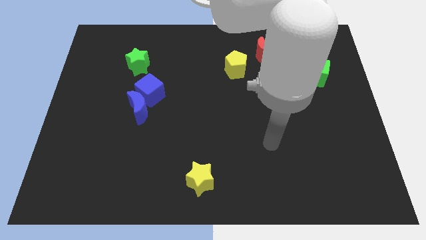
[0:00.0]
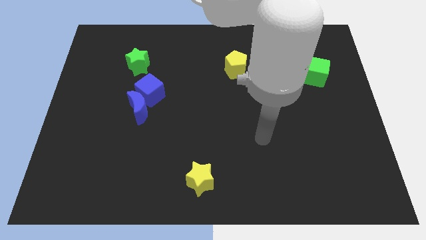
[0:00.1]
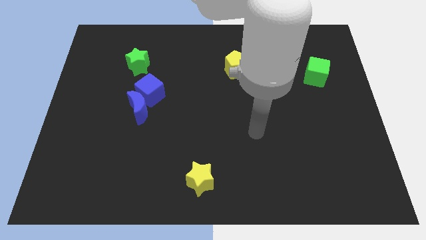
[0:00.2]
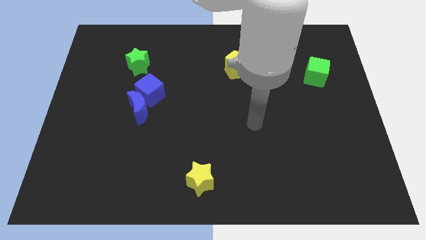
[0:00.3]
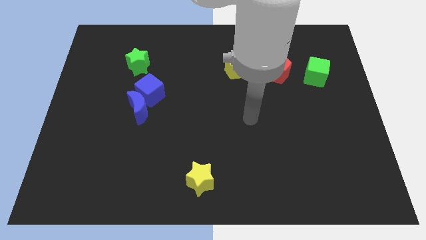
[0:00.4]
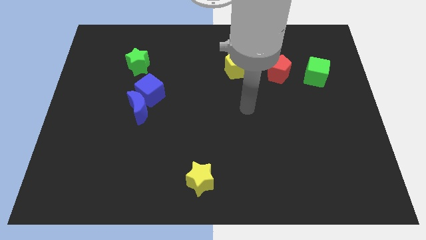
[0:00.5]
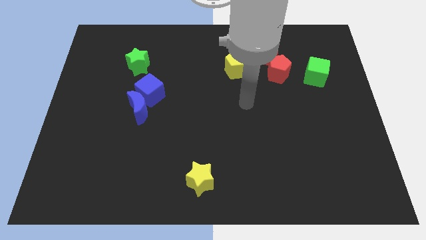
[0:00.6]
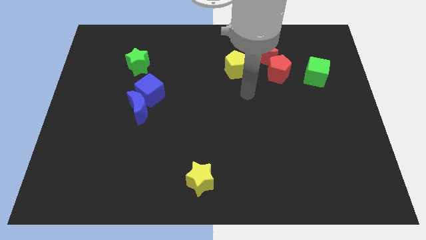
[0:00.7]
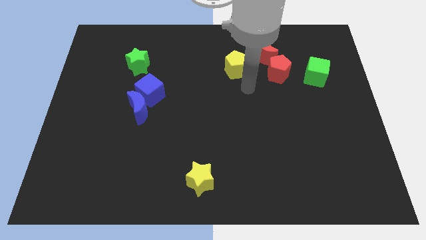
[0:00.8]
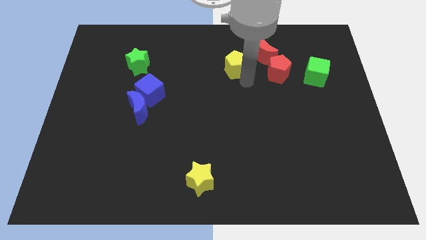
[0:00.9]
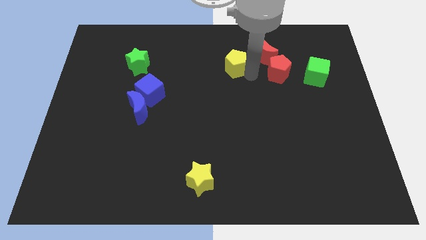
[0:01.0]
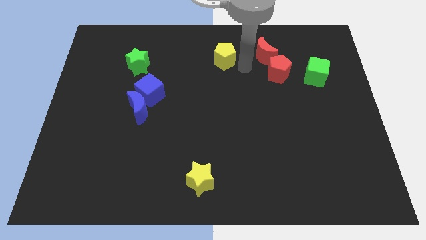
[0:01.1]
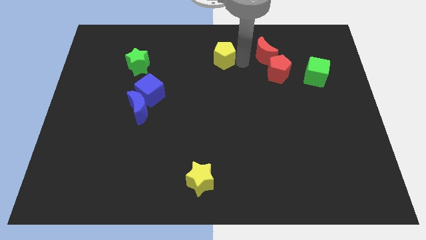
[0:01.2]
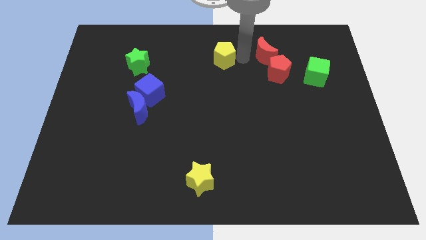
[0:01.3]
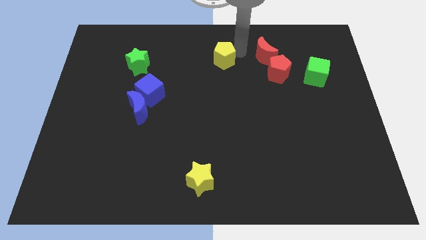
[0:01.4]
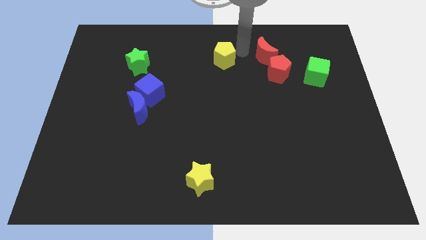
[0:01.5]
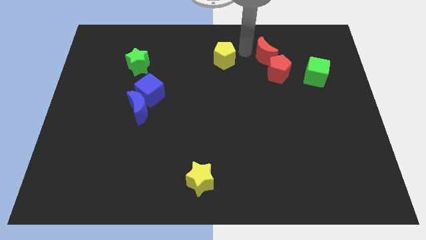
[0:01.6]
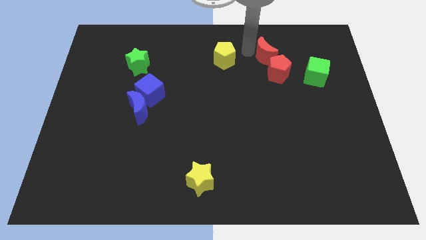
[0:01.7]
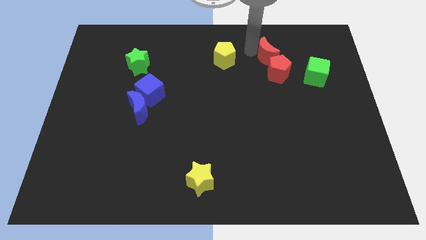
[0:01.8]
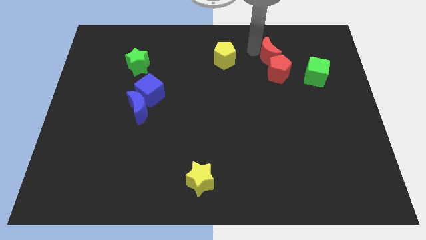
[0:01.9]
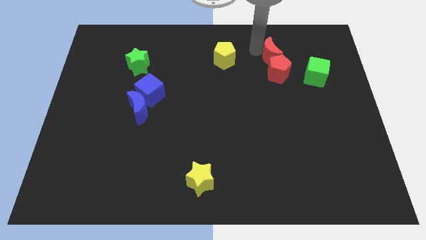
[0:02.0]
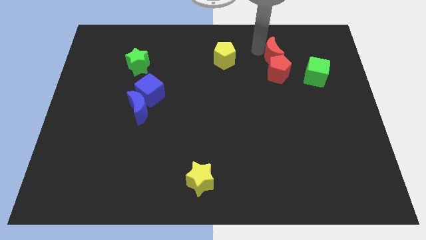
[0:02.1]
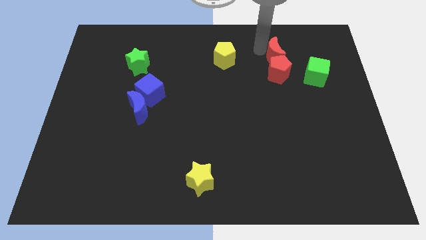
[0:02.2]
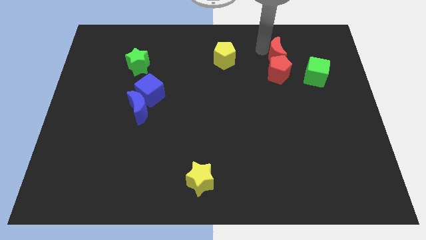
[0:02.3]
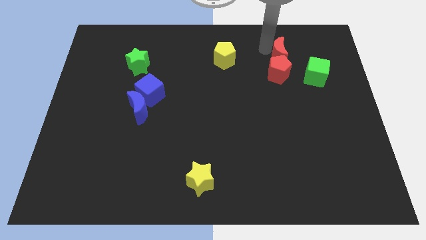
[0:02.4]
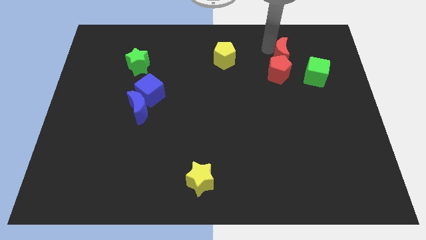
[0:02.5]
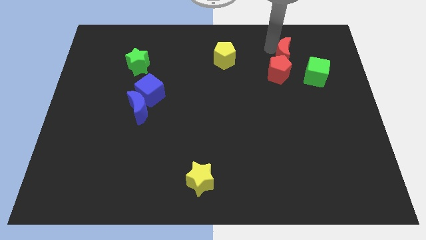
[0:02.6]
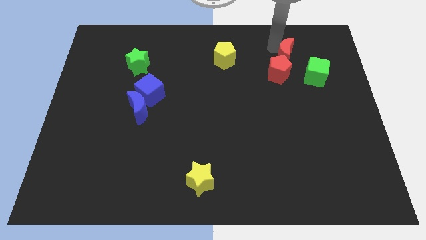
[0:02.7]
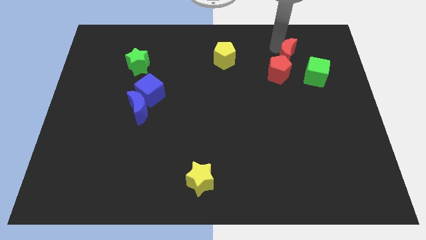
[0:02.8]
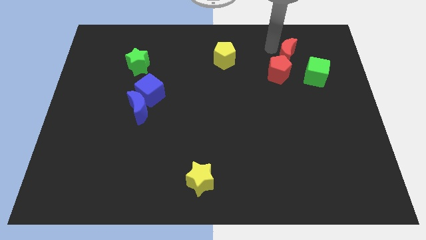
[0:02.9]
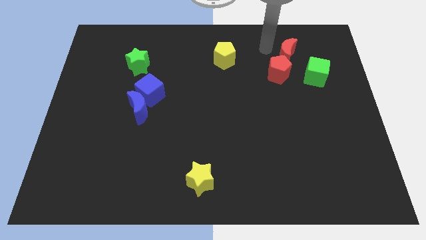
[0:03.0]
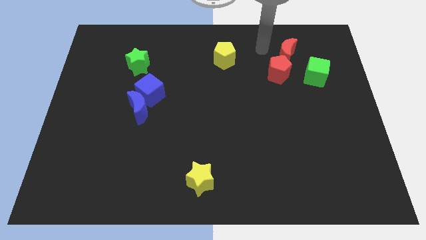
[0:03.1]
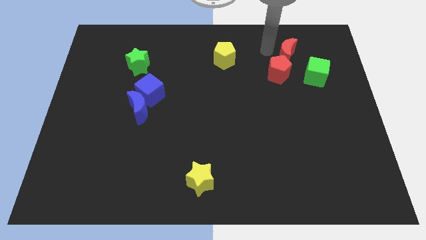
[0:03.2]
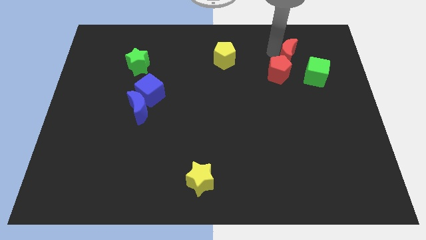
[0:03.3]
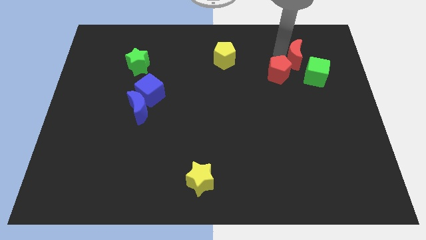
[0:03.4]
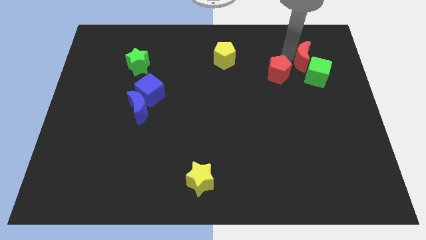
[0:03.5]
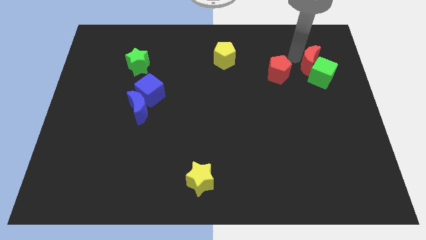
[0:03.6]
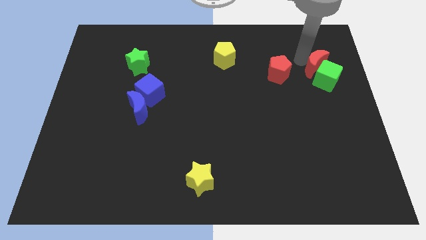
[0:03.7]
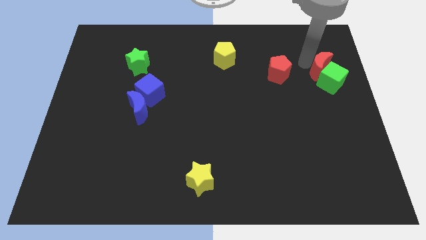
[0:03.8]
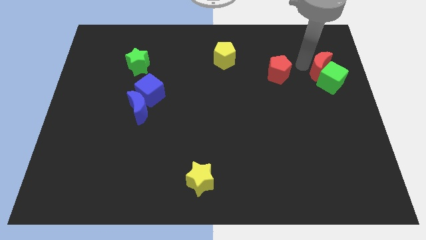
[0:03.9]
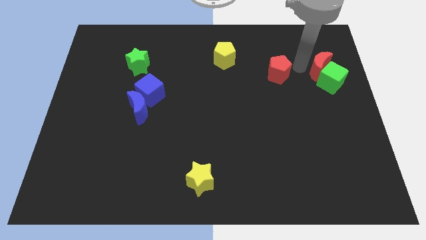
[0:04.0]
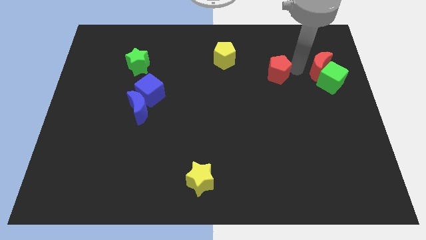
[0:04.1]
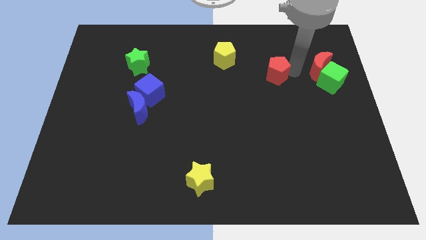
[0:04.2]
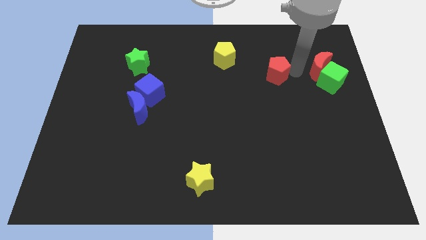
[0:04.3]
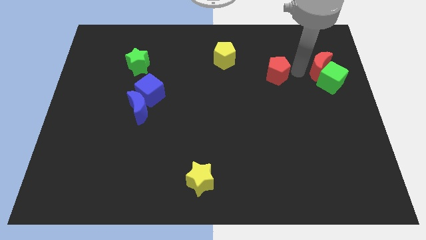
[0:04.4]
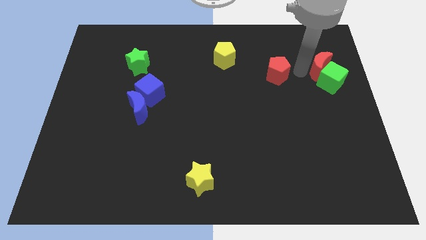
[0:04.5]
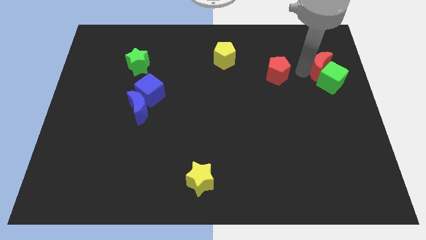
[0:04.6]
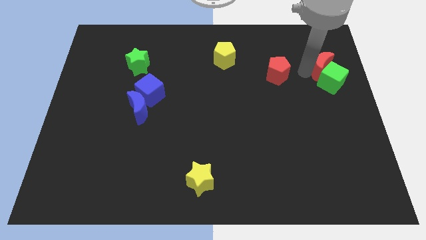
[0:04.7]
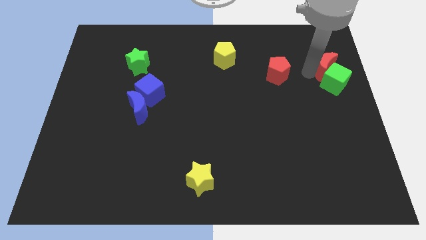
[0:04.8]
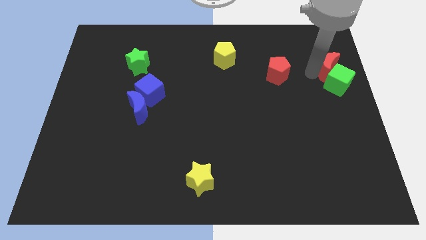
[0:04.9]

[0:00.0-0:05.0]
slide the red moon to the right side of the board

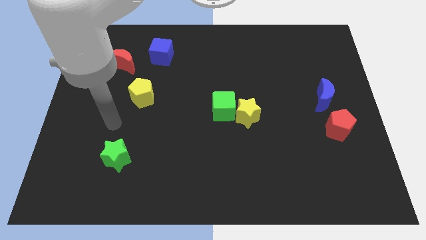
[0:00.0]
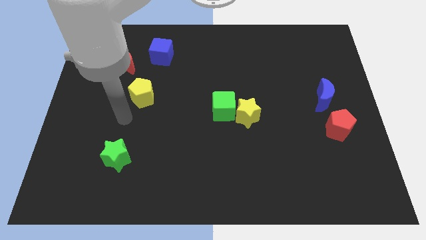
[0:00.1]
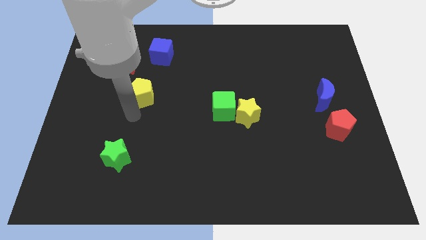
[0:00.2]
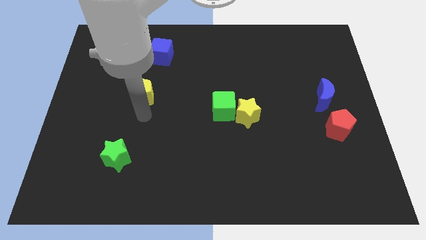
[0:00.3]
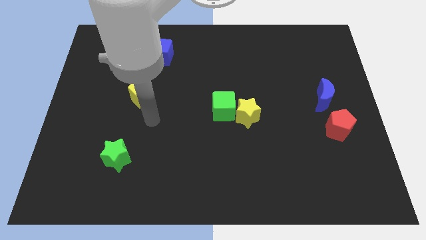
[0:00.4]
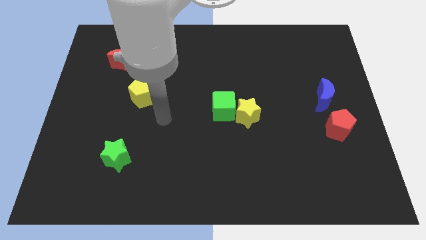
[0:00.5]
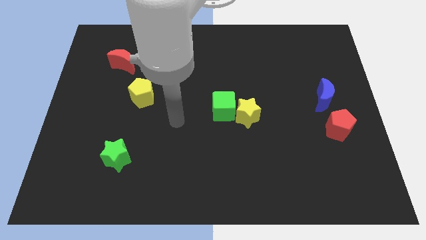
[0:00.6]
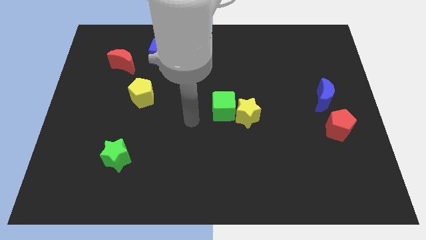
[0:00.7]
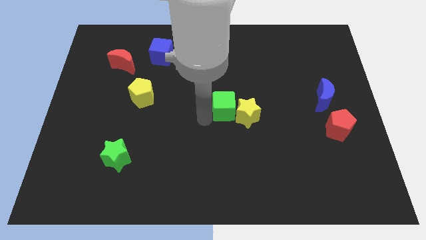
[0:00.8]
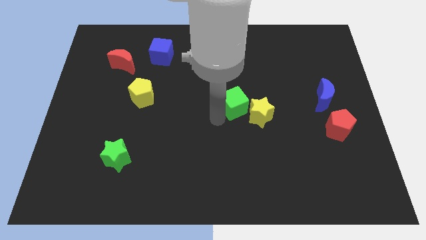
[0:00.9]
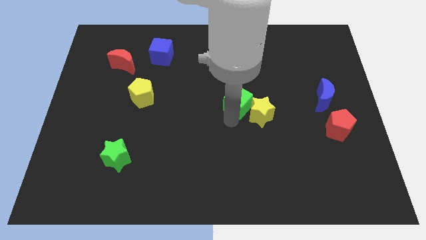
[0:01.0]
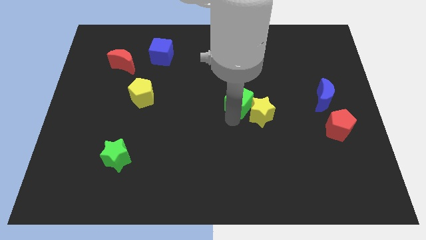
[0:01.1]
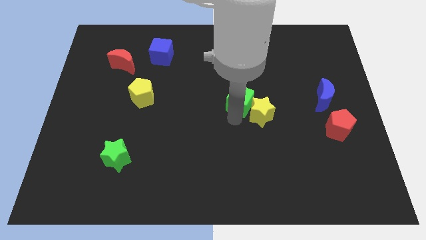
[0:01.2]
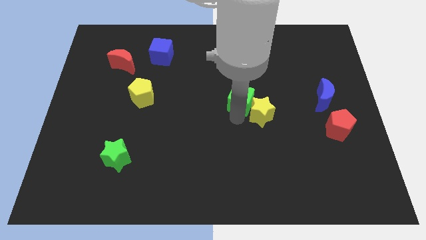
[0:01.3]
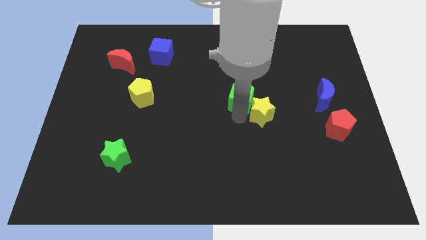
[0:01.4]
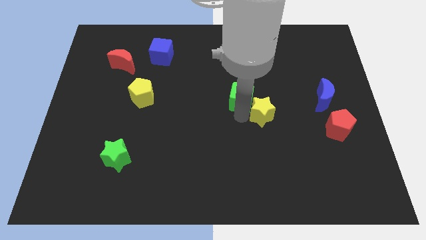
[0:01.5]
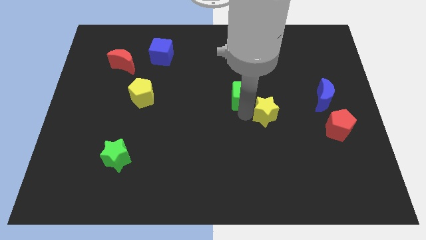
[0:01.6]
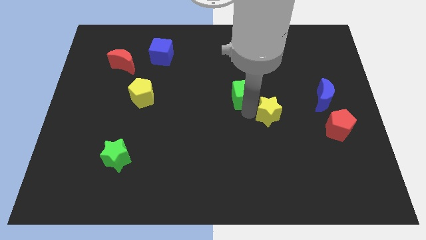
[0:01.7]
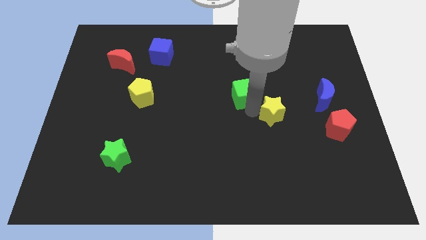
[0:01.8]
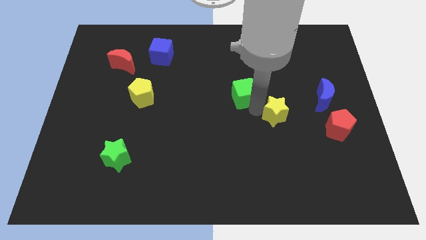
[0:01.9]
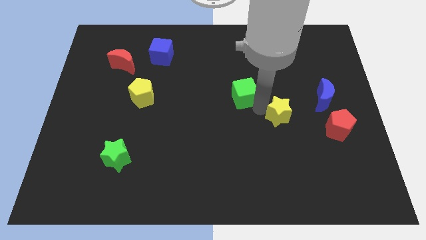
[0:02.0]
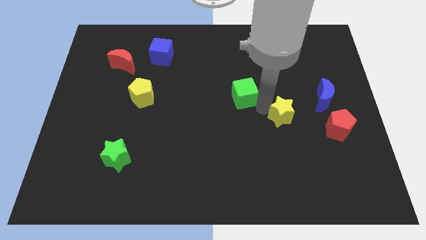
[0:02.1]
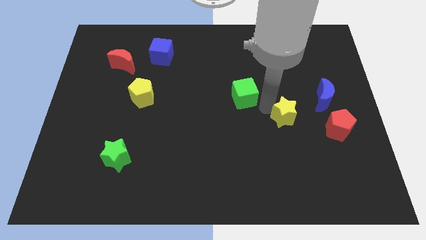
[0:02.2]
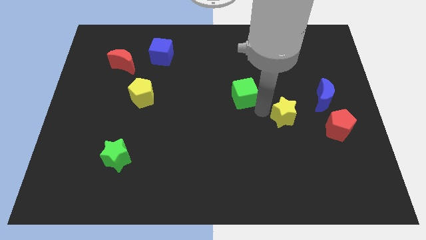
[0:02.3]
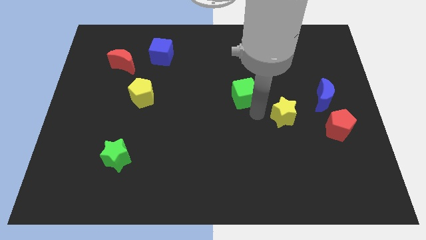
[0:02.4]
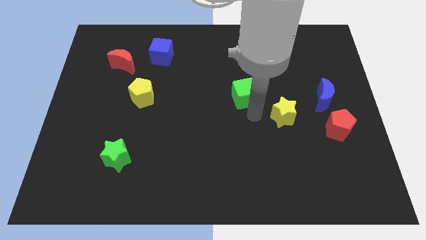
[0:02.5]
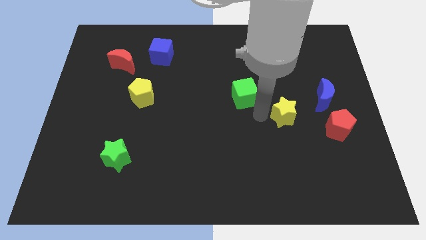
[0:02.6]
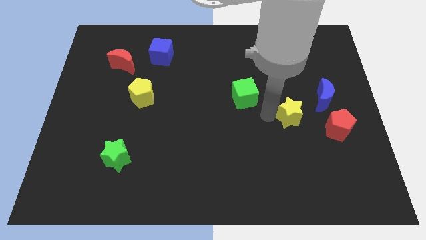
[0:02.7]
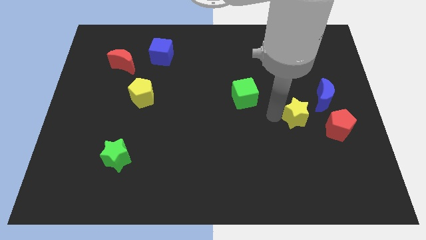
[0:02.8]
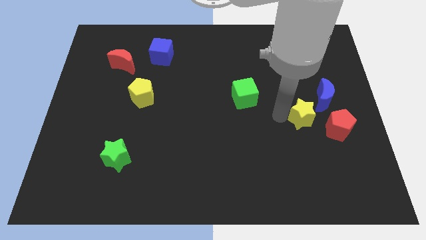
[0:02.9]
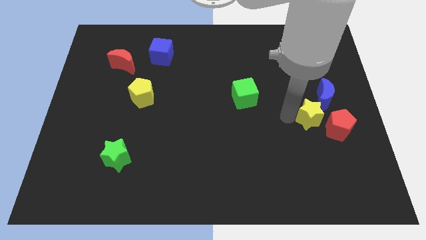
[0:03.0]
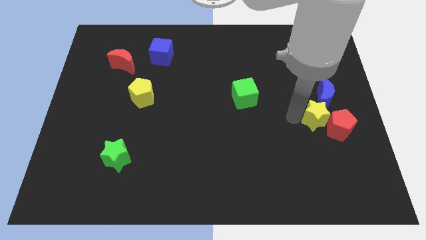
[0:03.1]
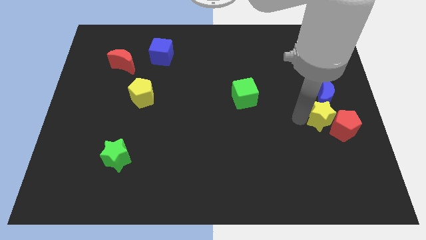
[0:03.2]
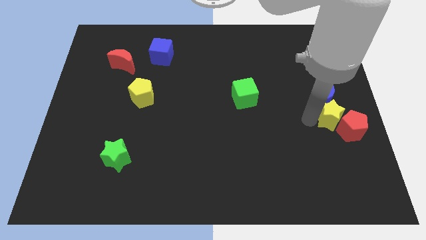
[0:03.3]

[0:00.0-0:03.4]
put the yellow star to the right side of the board
